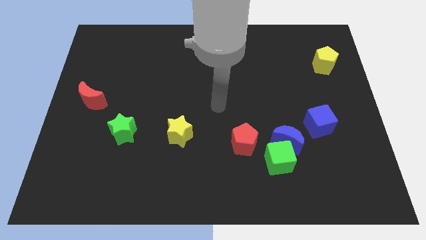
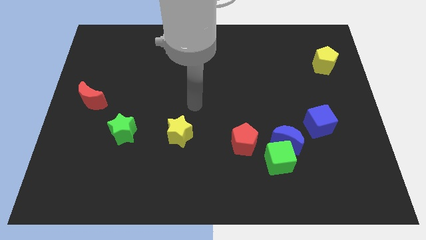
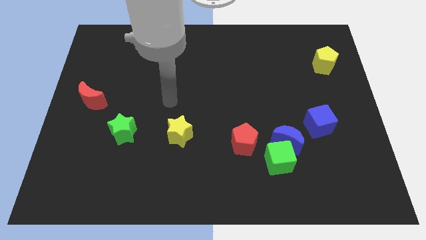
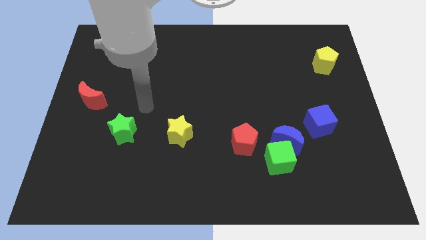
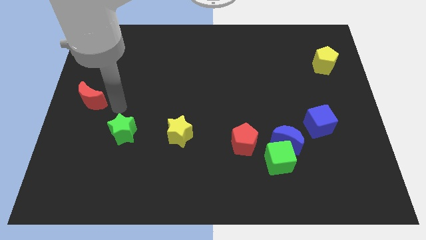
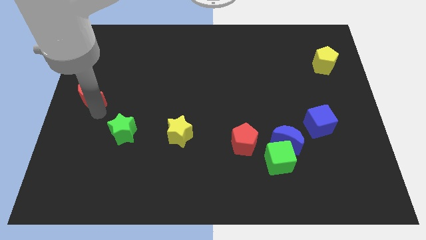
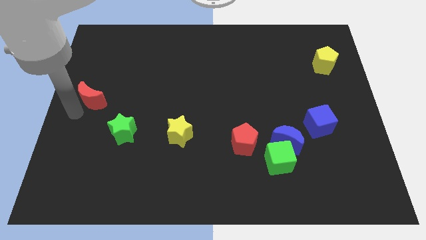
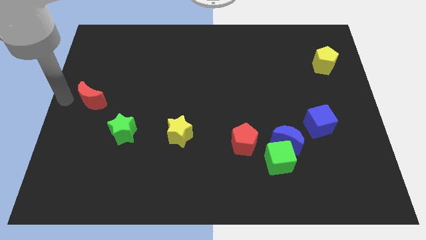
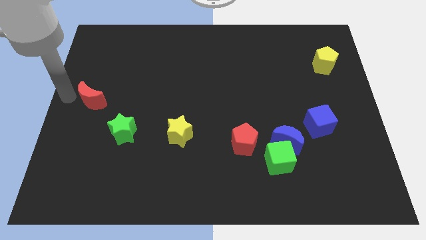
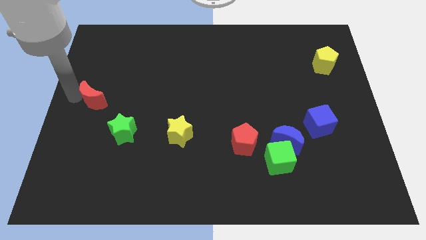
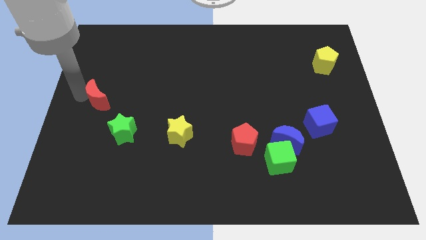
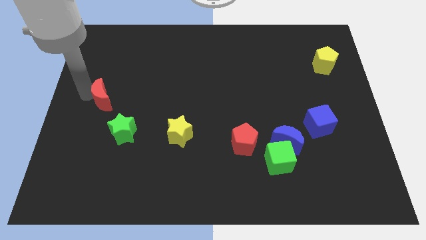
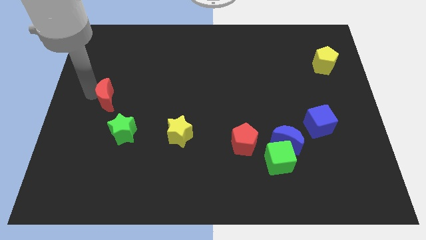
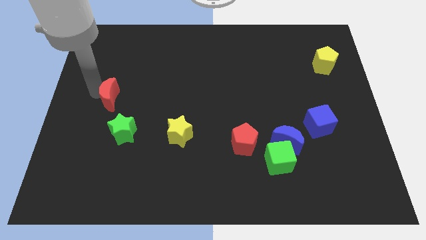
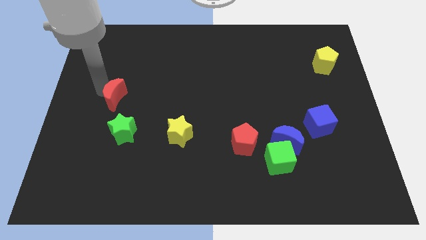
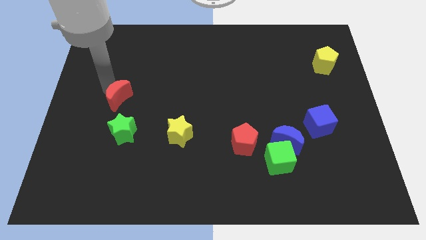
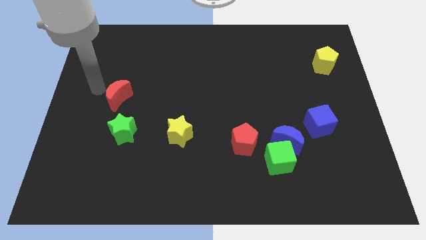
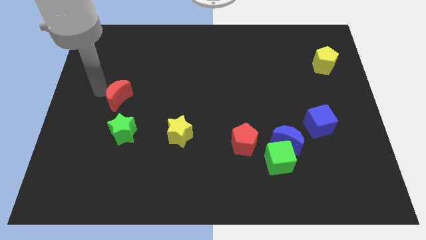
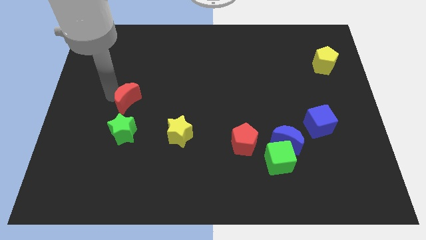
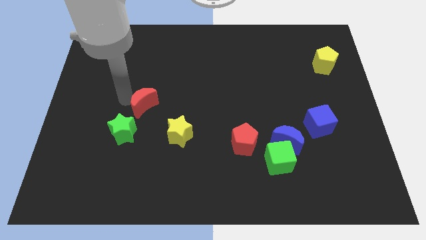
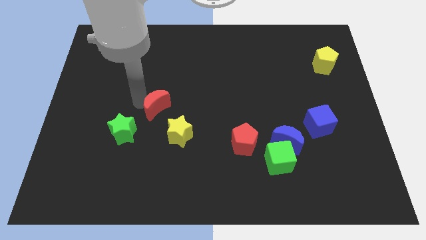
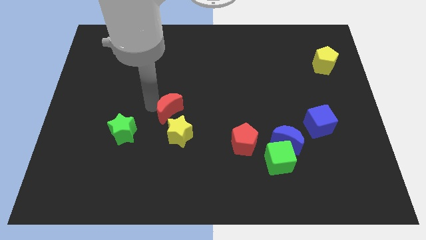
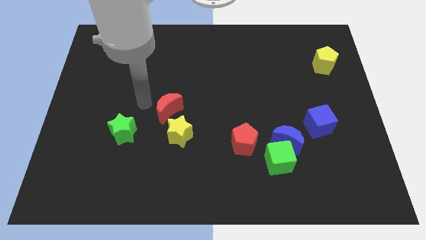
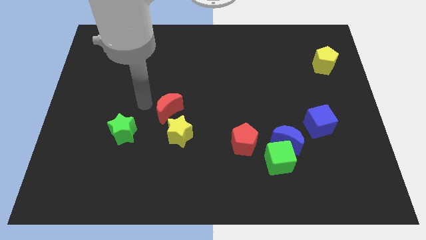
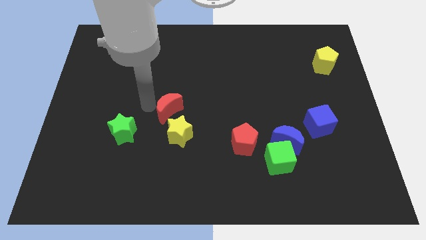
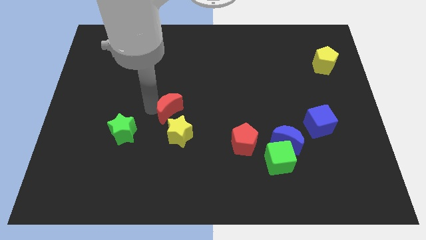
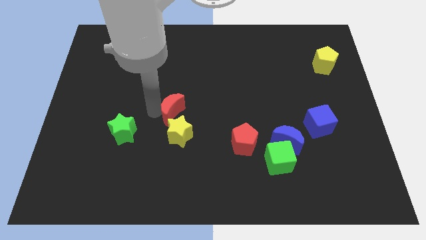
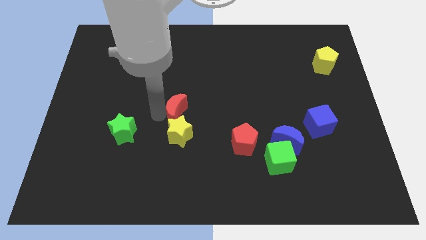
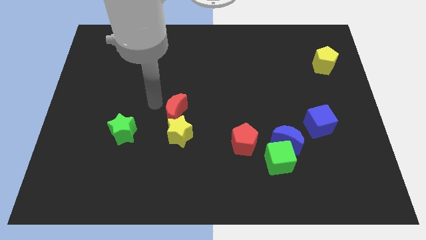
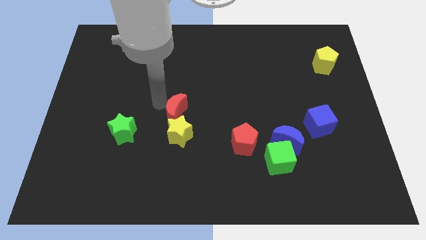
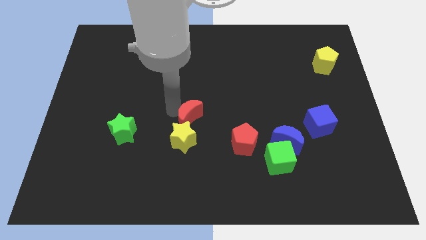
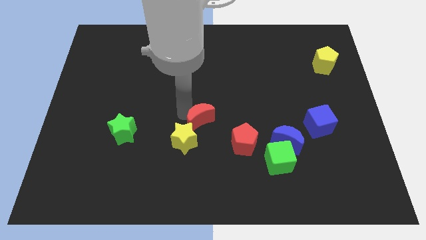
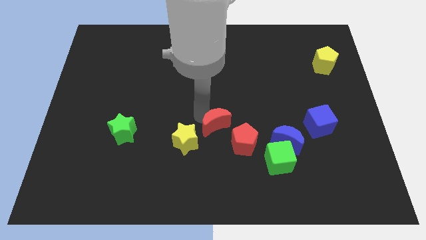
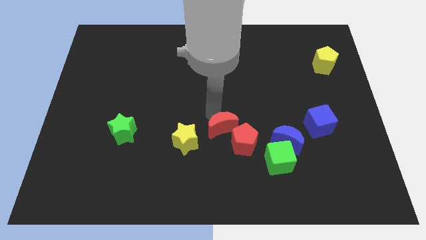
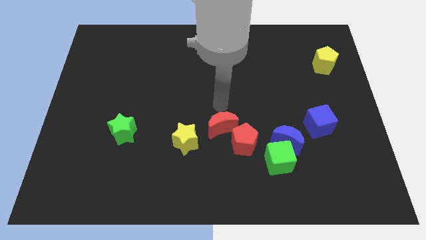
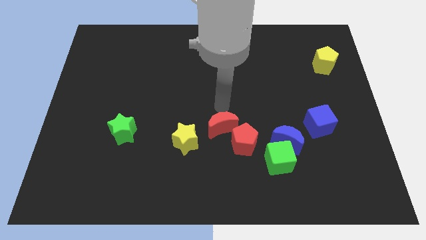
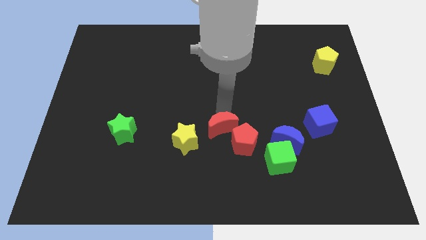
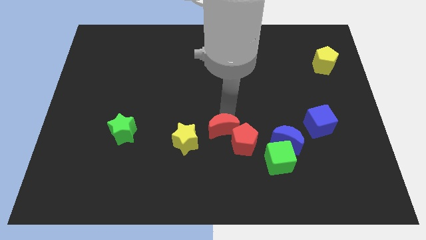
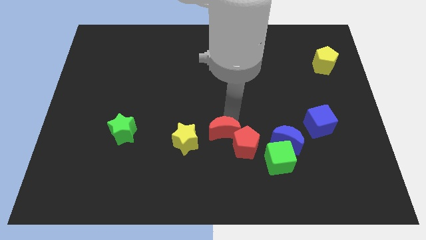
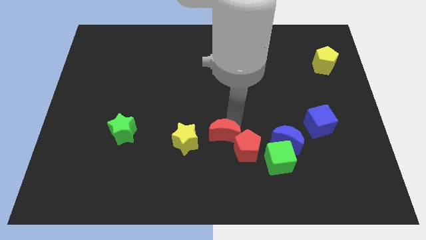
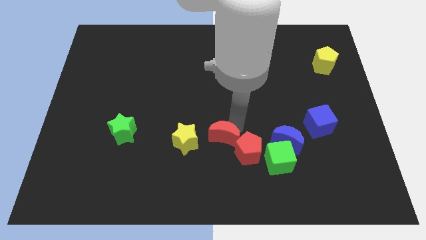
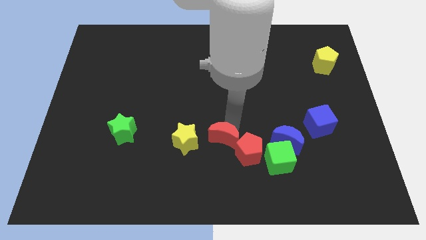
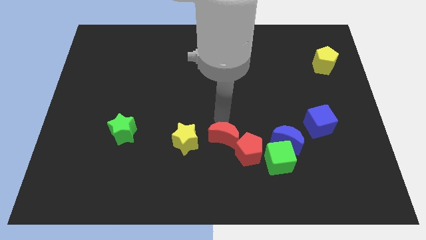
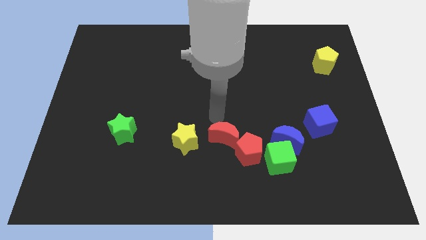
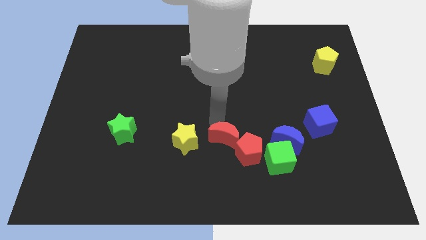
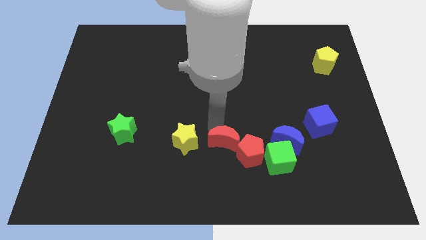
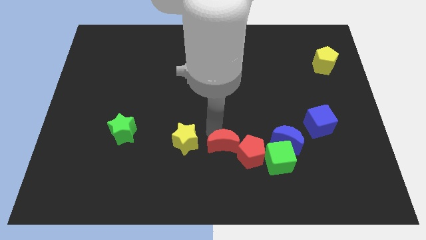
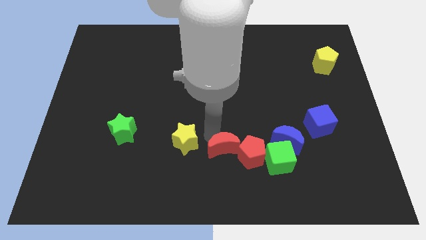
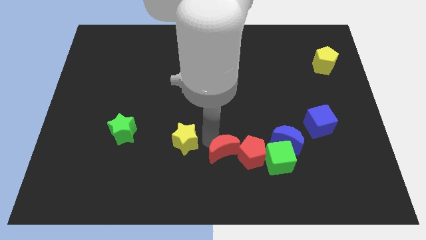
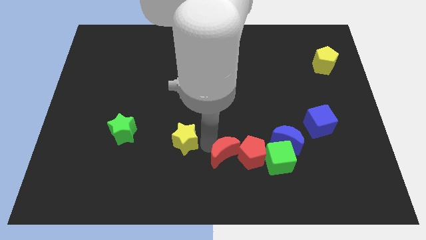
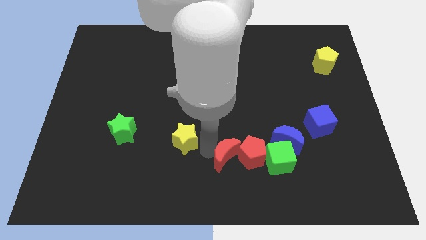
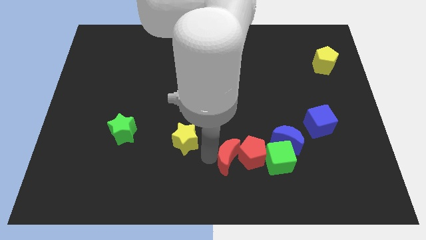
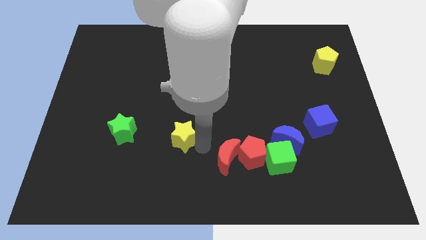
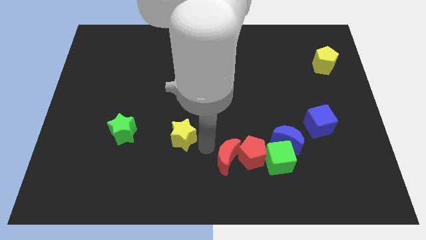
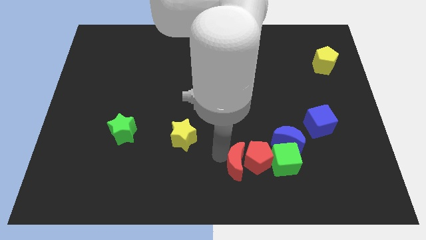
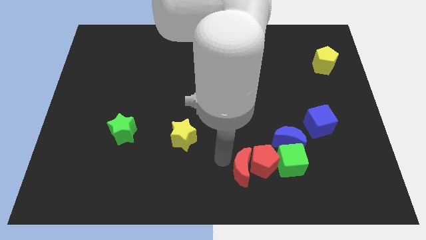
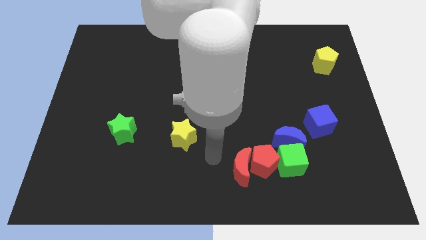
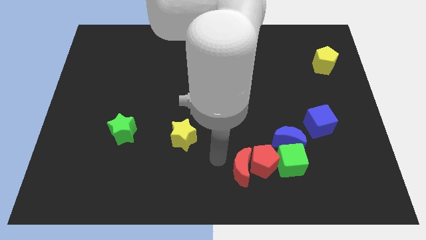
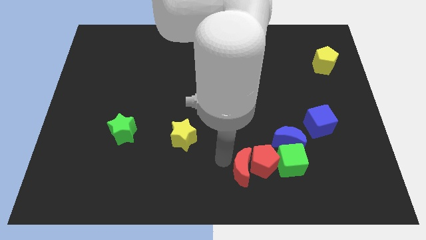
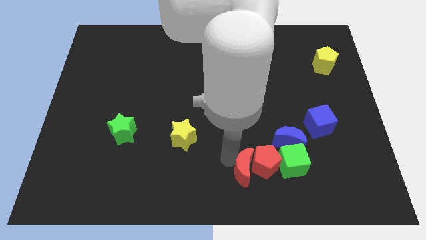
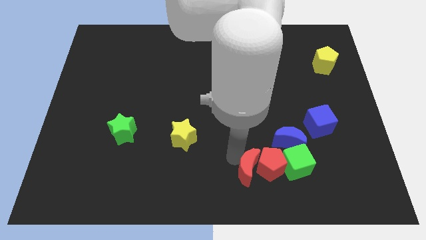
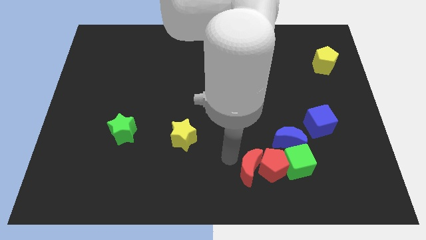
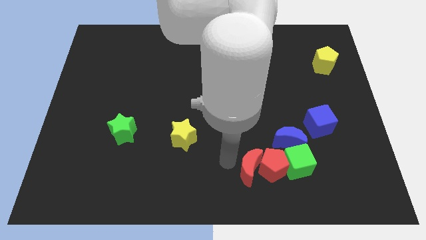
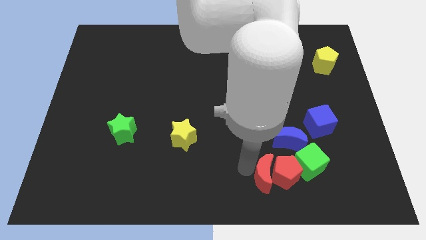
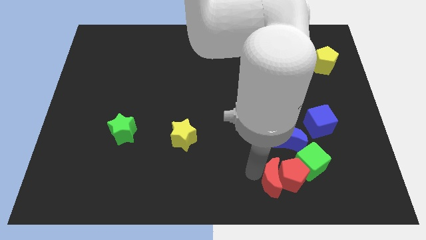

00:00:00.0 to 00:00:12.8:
slide the red moon to the bottom of the blue moon

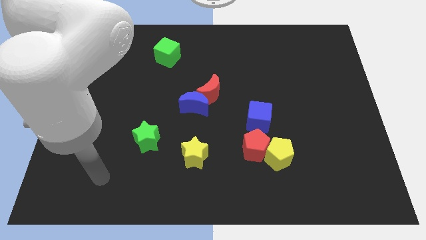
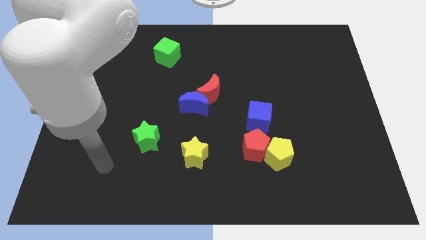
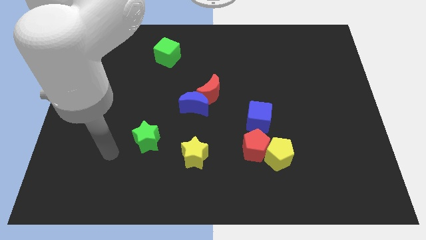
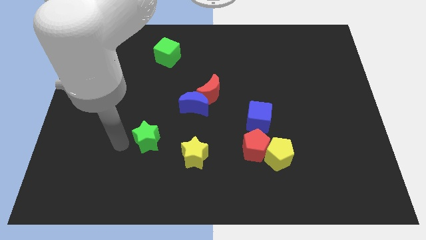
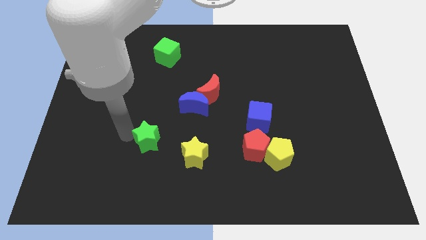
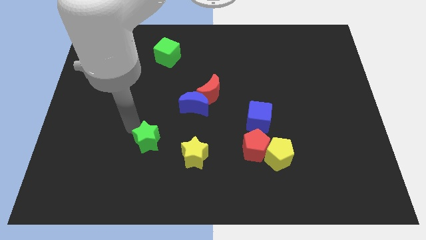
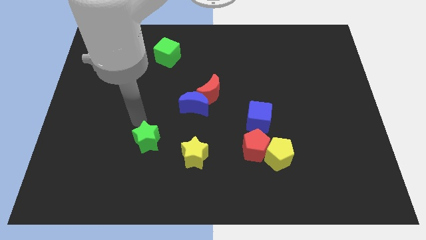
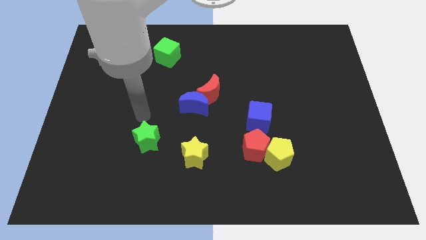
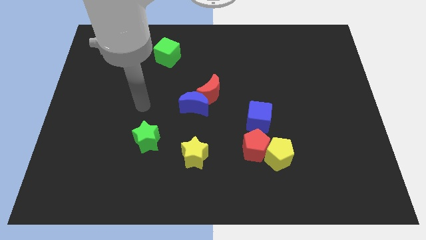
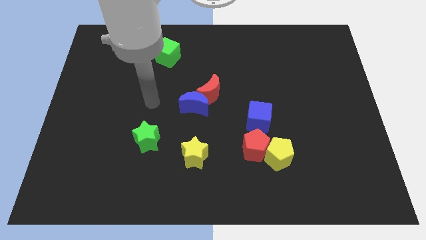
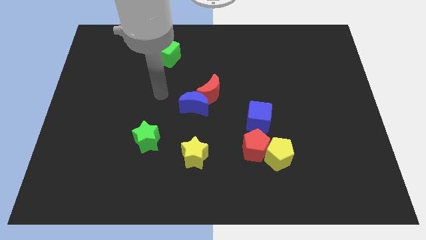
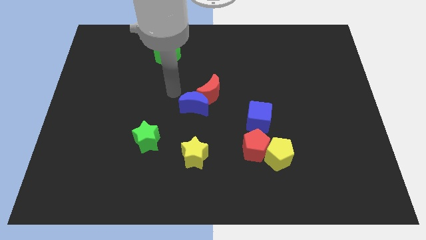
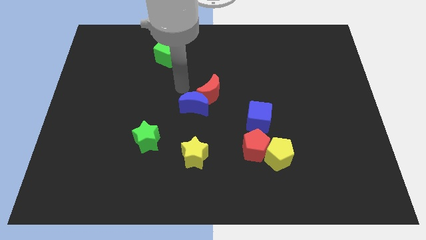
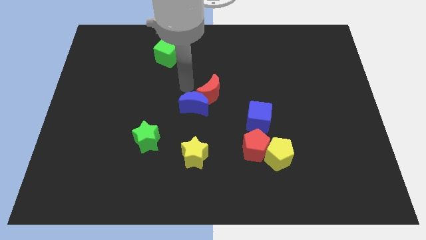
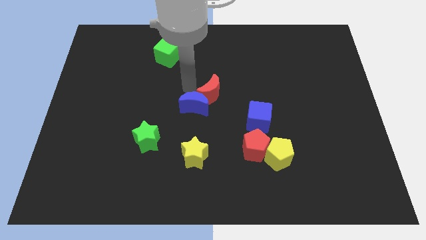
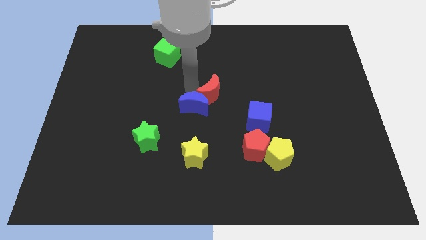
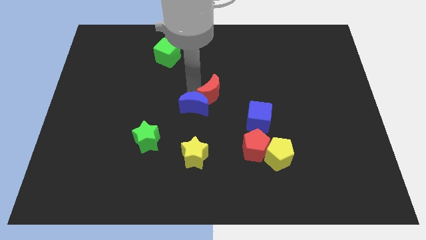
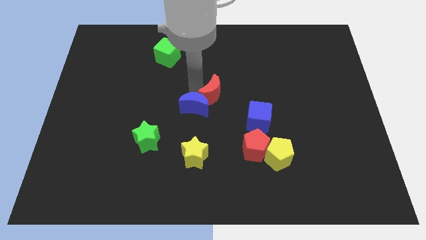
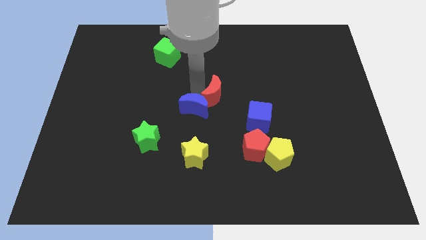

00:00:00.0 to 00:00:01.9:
push the red moon to the top left of the blue cube
